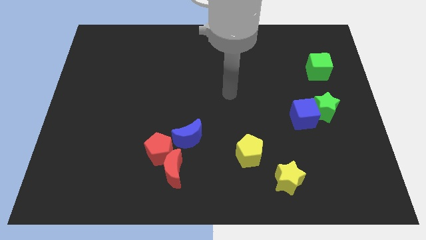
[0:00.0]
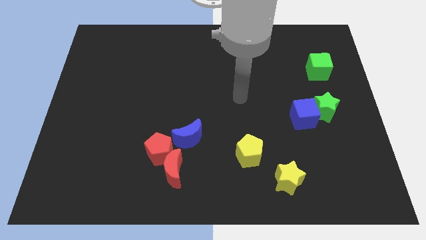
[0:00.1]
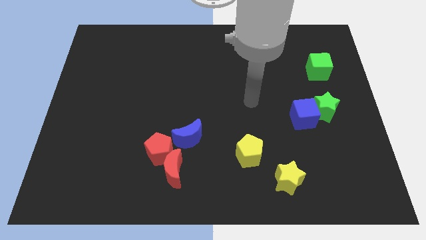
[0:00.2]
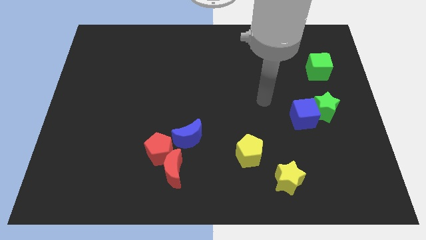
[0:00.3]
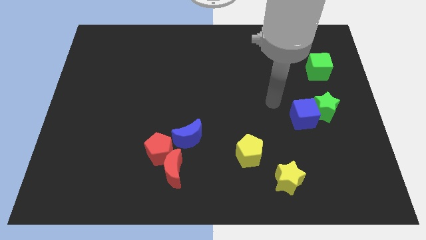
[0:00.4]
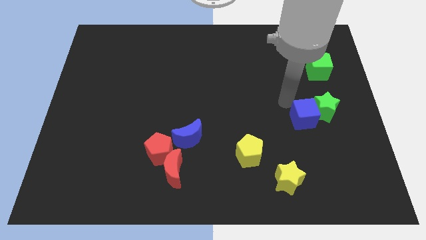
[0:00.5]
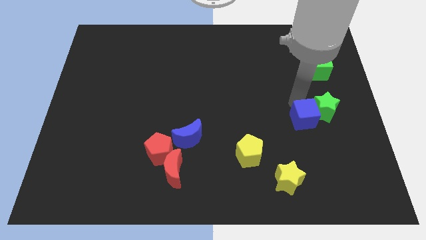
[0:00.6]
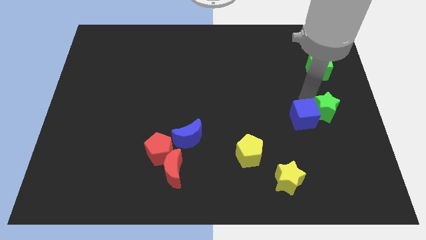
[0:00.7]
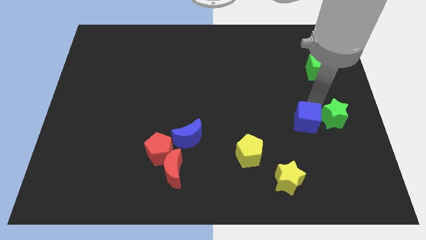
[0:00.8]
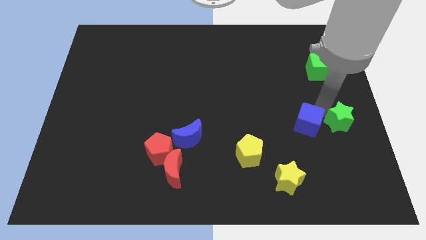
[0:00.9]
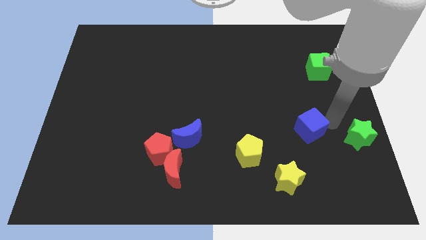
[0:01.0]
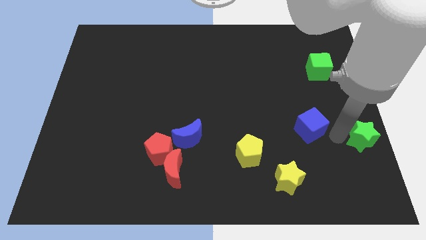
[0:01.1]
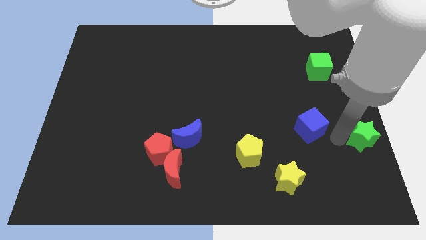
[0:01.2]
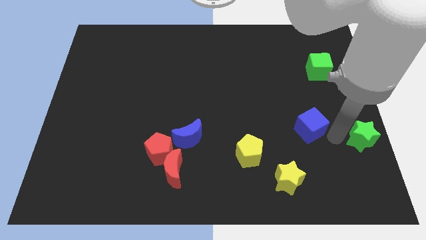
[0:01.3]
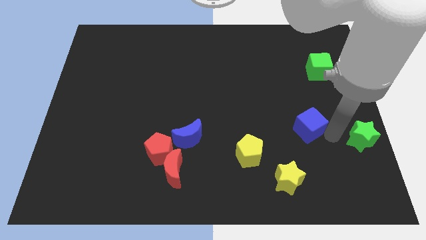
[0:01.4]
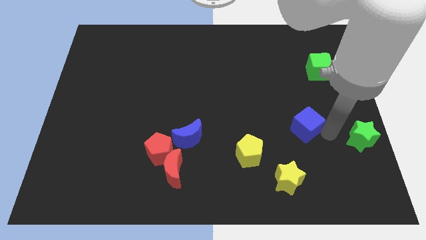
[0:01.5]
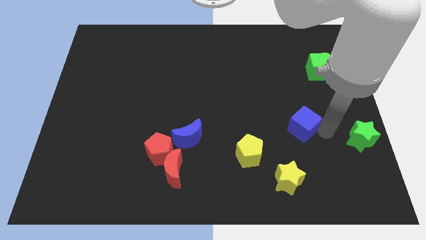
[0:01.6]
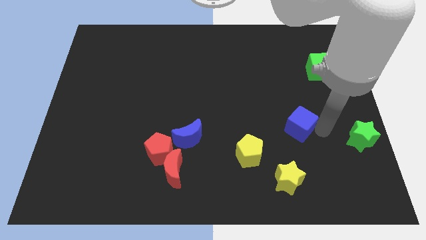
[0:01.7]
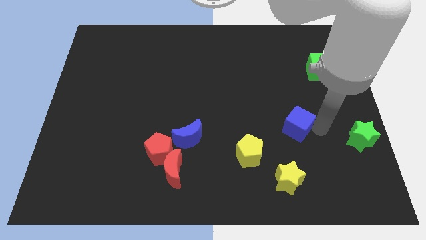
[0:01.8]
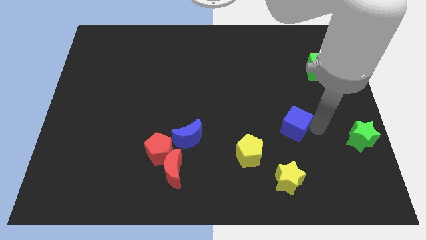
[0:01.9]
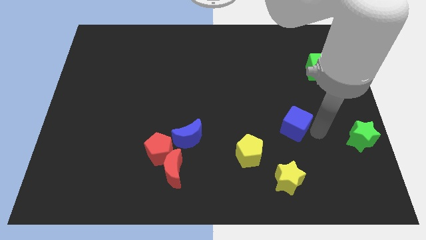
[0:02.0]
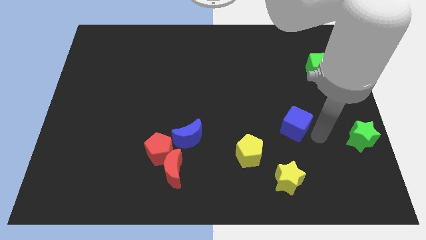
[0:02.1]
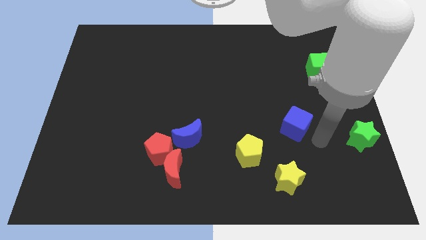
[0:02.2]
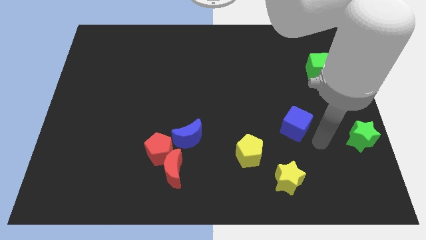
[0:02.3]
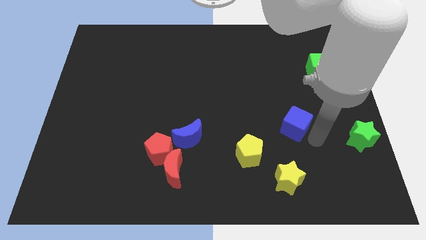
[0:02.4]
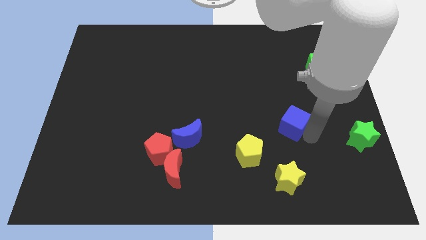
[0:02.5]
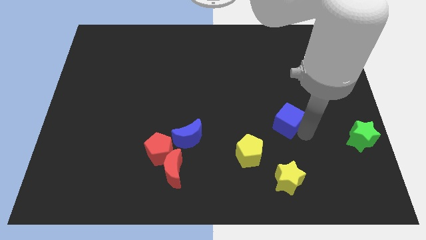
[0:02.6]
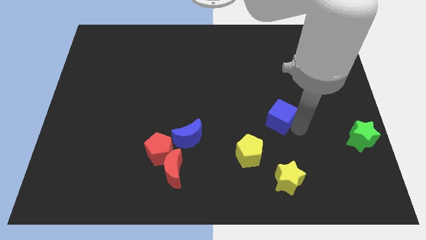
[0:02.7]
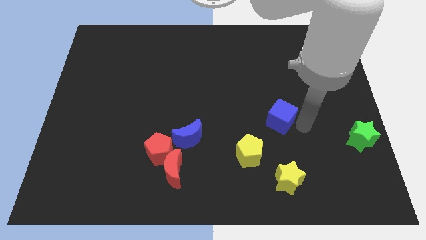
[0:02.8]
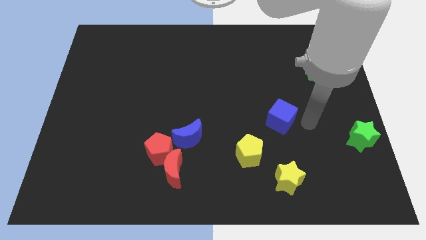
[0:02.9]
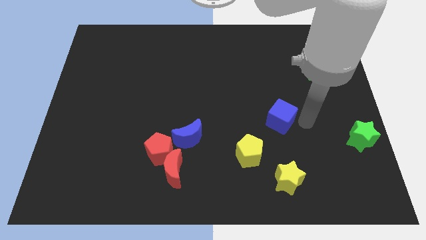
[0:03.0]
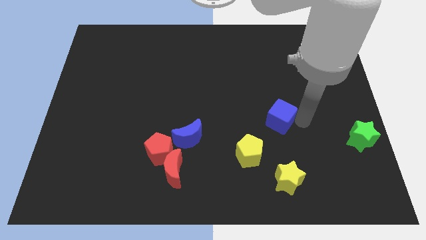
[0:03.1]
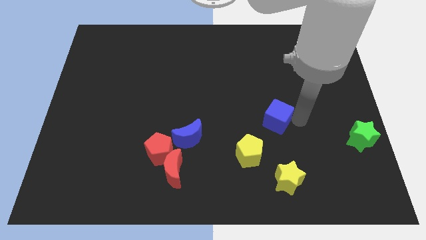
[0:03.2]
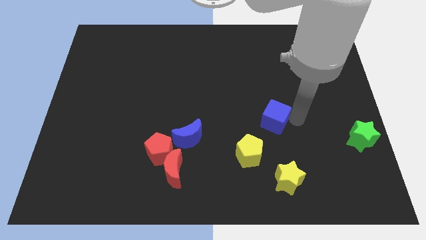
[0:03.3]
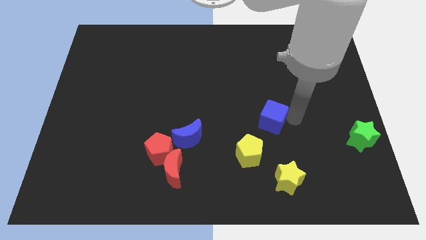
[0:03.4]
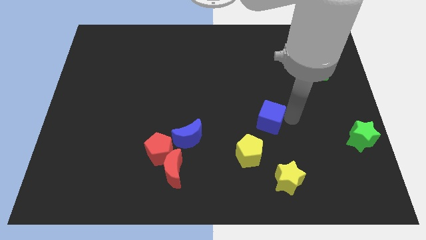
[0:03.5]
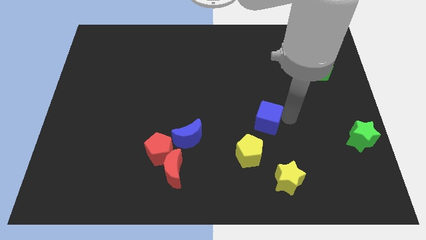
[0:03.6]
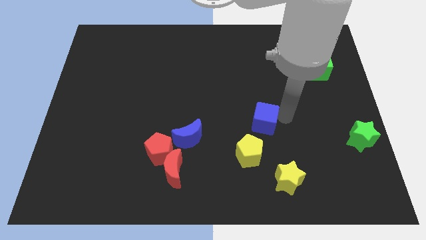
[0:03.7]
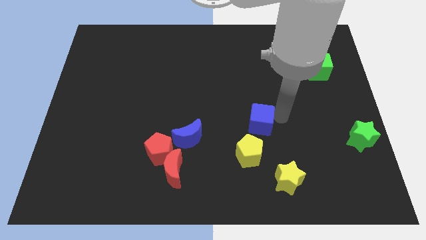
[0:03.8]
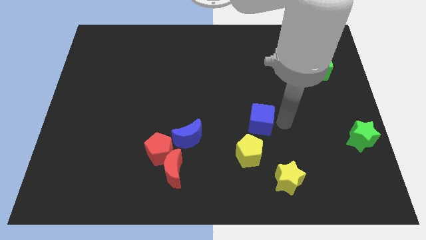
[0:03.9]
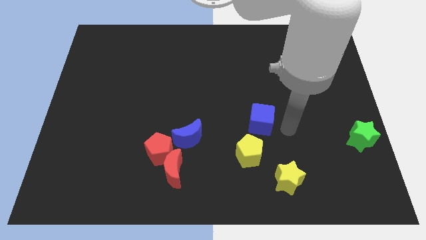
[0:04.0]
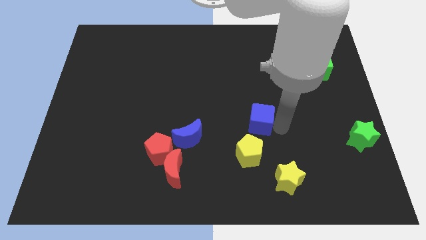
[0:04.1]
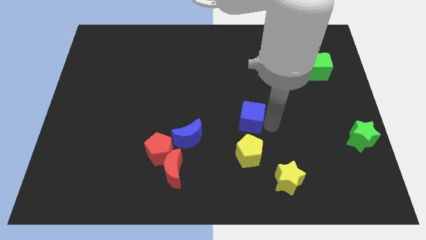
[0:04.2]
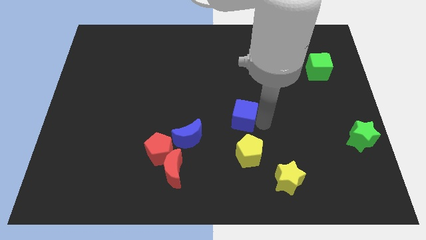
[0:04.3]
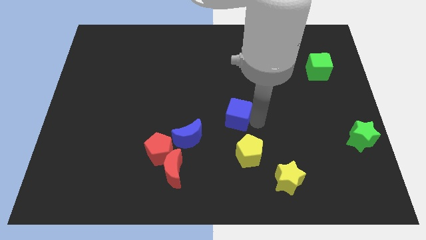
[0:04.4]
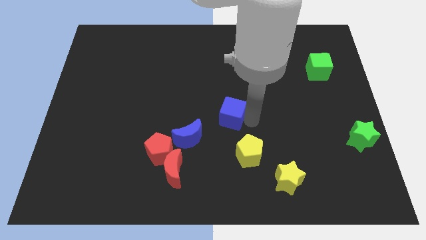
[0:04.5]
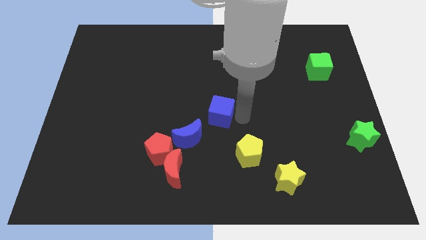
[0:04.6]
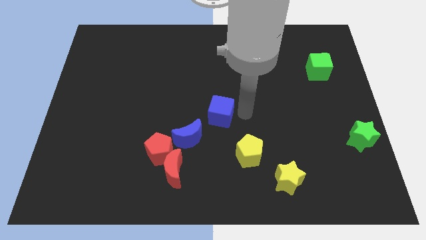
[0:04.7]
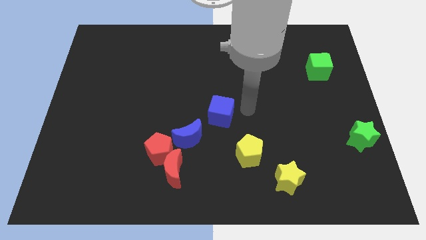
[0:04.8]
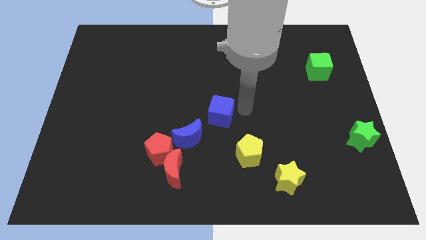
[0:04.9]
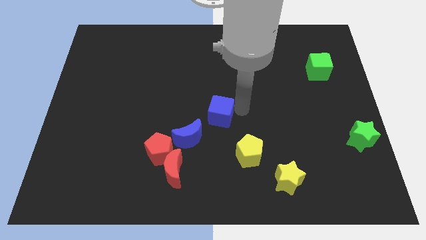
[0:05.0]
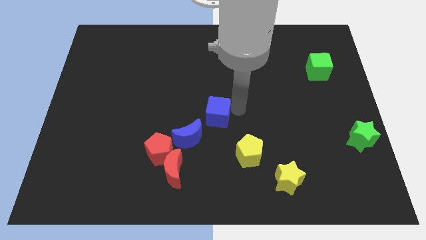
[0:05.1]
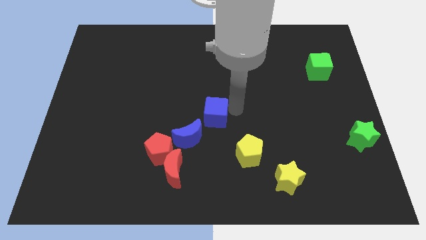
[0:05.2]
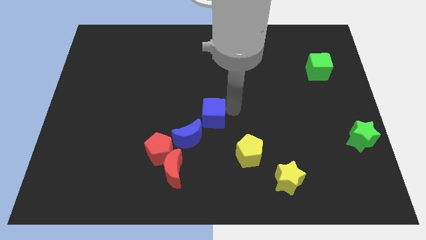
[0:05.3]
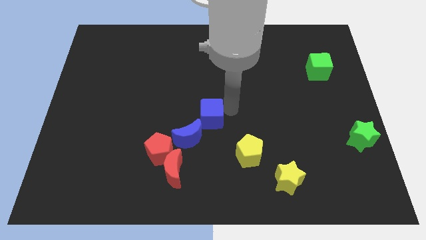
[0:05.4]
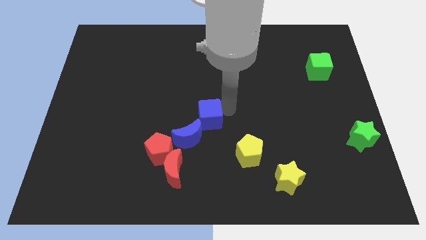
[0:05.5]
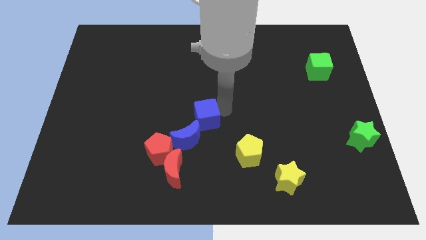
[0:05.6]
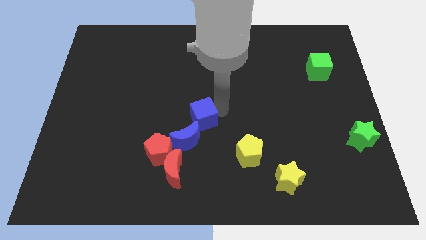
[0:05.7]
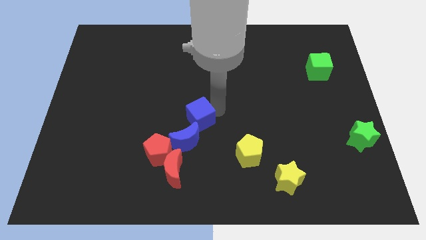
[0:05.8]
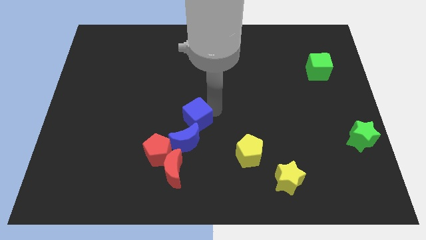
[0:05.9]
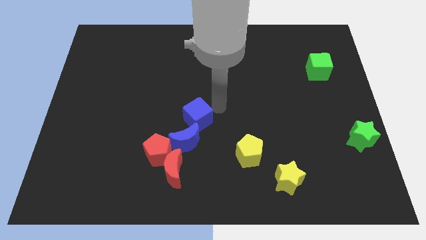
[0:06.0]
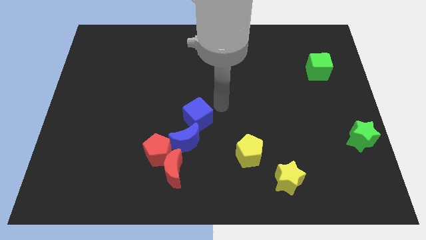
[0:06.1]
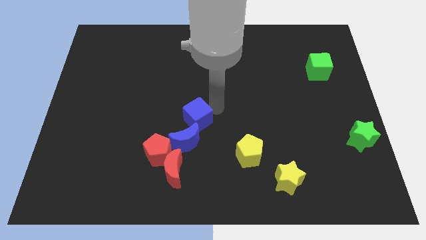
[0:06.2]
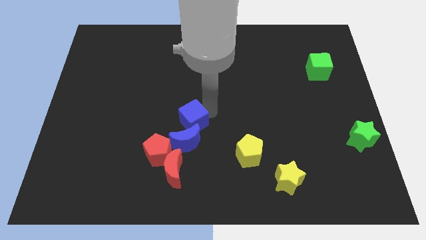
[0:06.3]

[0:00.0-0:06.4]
push the blue cube above the red moon

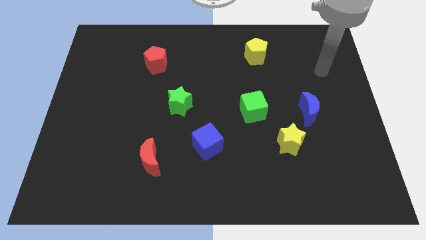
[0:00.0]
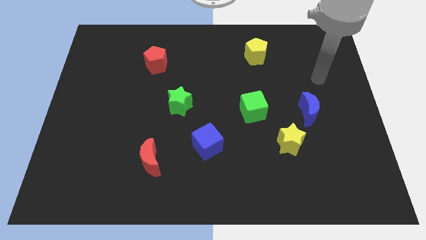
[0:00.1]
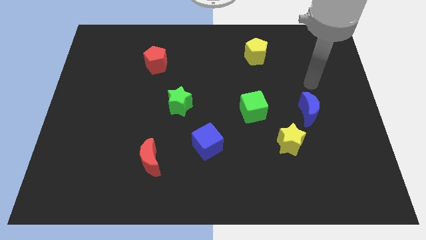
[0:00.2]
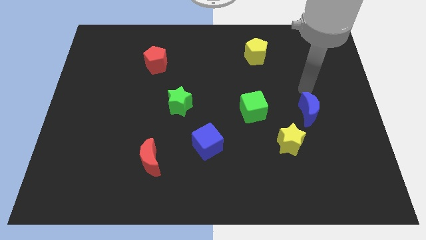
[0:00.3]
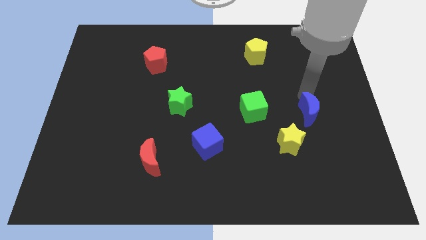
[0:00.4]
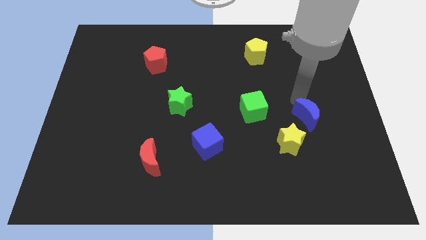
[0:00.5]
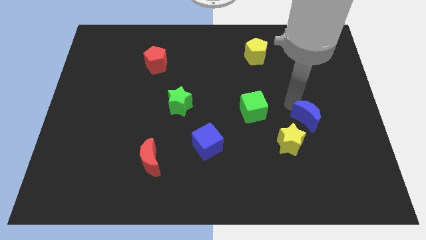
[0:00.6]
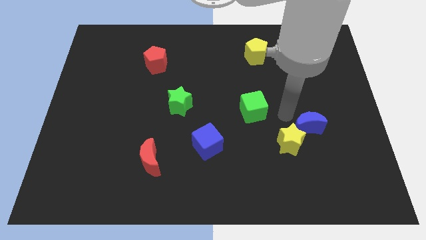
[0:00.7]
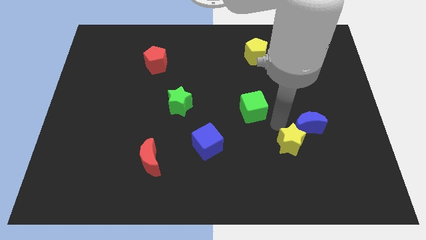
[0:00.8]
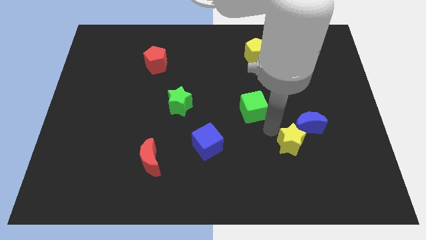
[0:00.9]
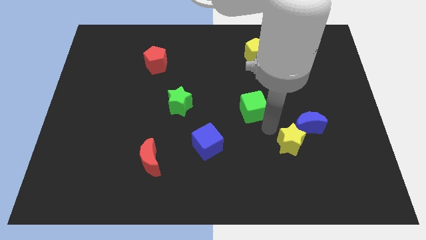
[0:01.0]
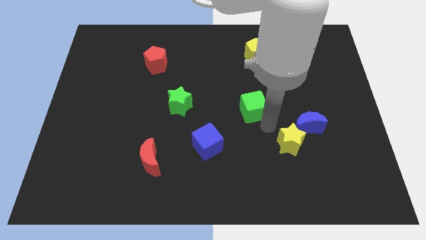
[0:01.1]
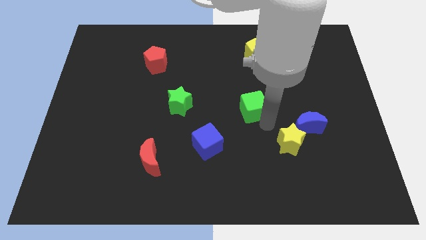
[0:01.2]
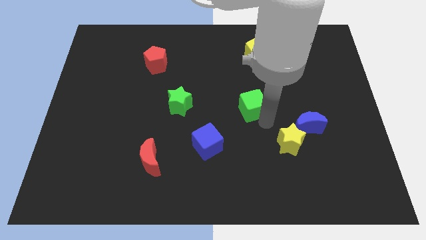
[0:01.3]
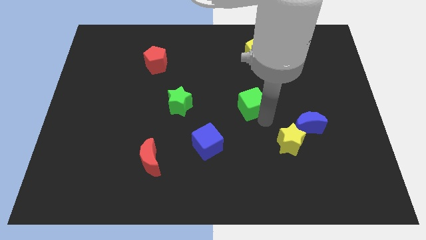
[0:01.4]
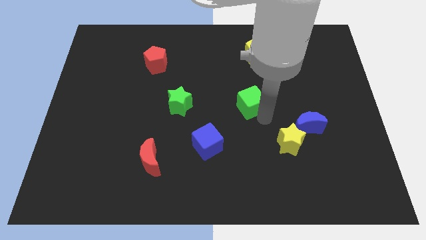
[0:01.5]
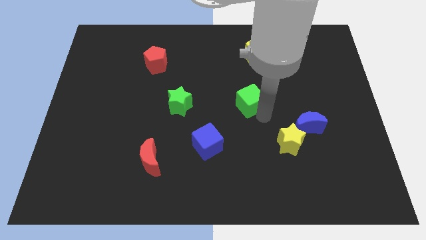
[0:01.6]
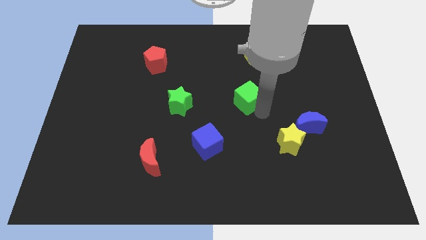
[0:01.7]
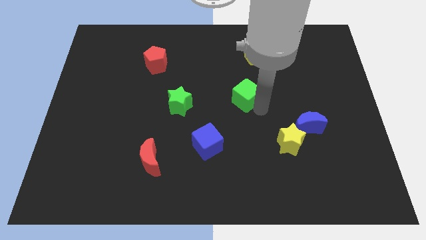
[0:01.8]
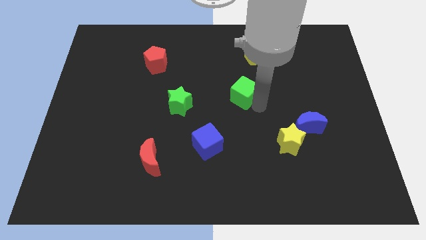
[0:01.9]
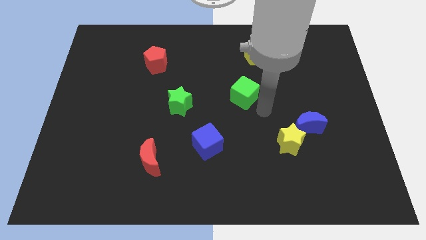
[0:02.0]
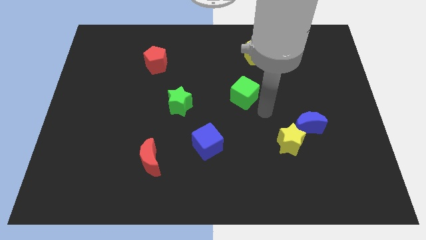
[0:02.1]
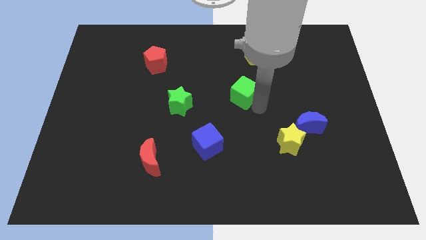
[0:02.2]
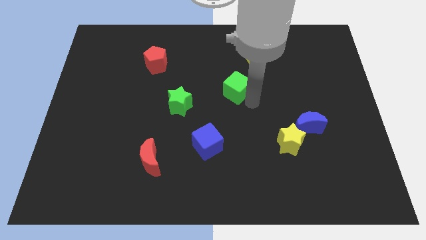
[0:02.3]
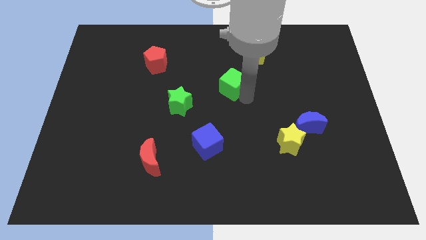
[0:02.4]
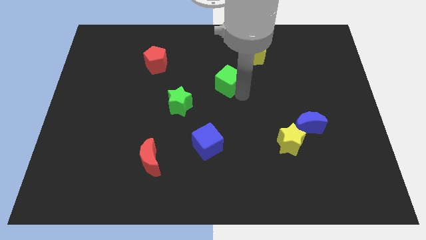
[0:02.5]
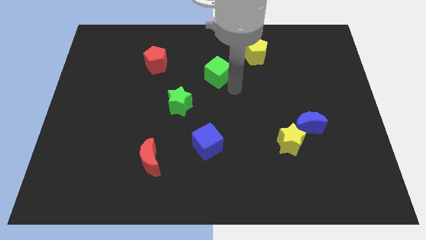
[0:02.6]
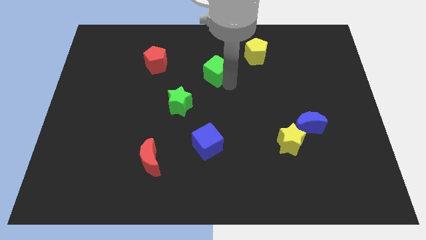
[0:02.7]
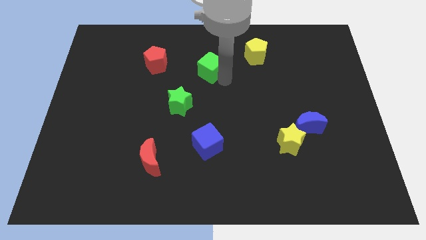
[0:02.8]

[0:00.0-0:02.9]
move the green cube to the right side of the red pentagon
